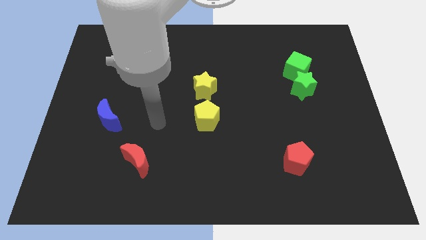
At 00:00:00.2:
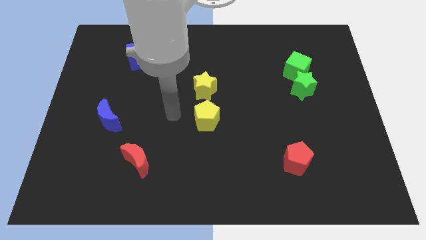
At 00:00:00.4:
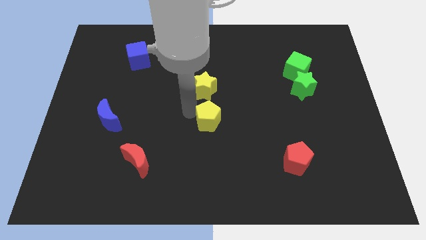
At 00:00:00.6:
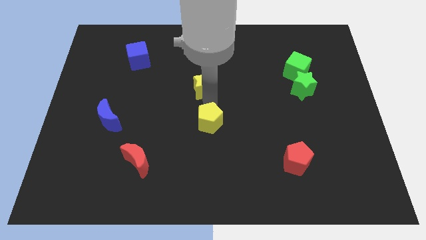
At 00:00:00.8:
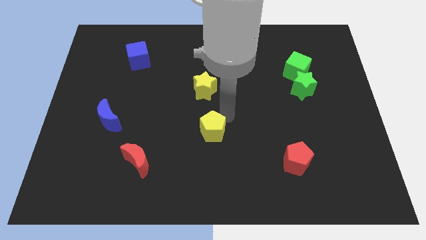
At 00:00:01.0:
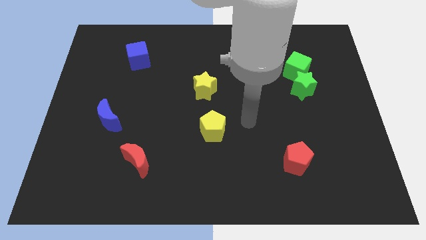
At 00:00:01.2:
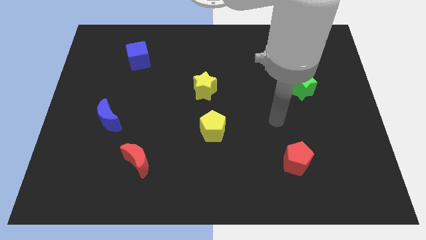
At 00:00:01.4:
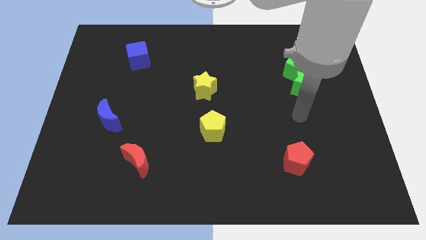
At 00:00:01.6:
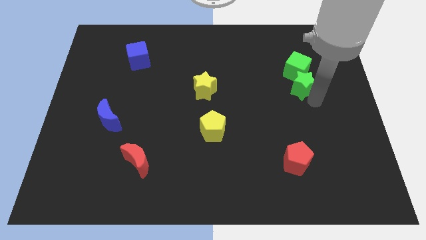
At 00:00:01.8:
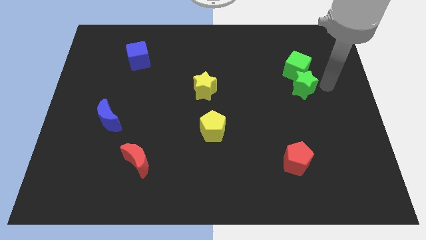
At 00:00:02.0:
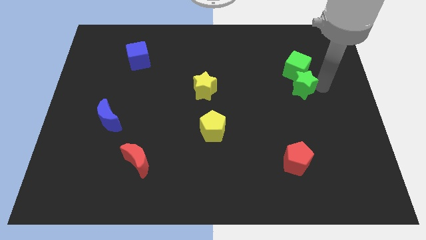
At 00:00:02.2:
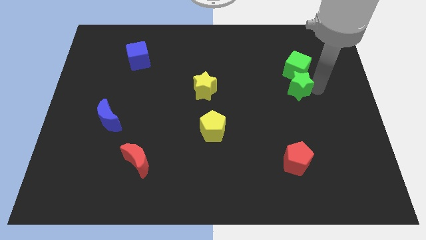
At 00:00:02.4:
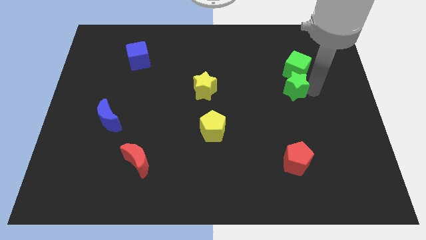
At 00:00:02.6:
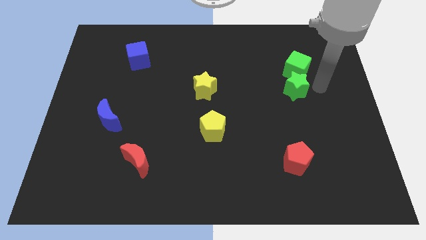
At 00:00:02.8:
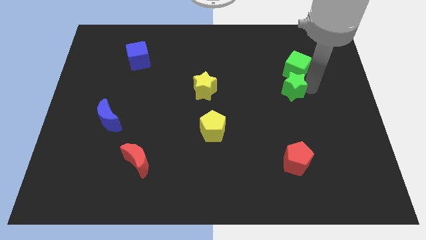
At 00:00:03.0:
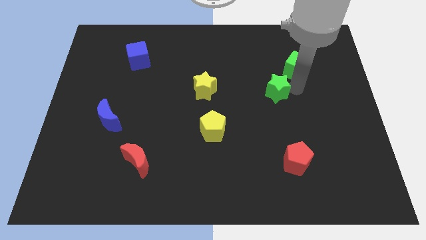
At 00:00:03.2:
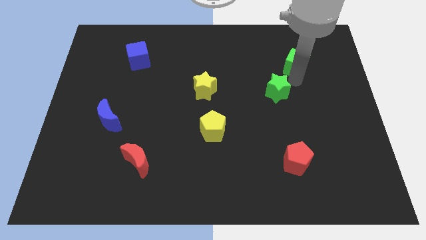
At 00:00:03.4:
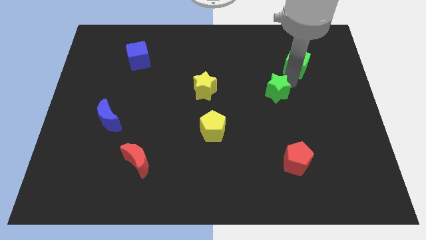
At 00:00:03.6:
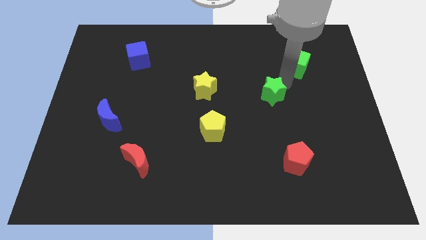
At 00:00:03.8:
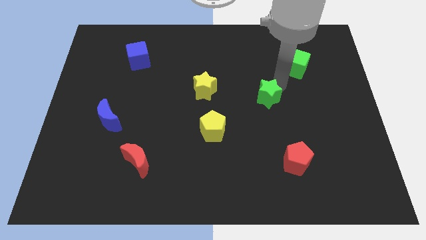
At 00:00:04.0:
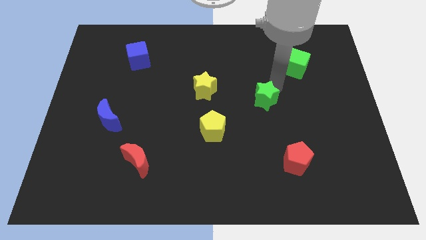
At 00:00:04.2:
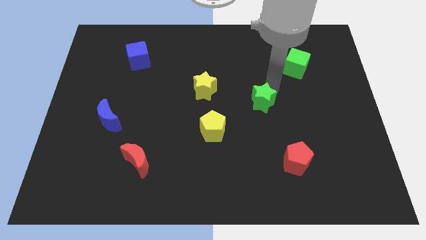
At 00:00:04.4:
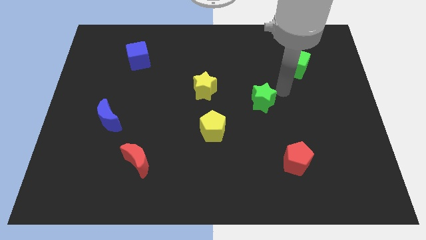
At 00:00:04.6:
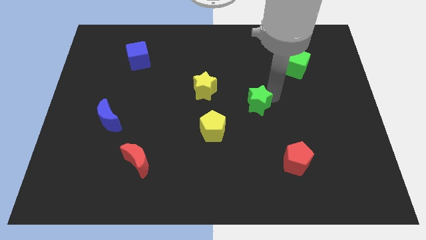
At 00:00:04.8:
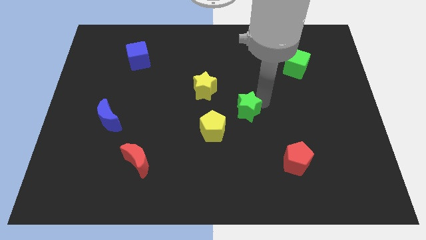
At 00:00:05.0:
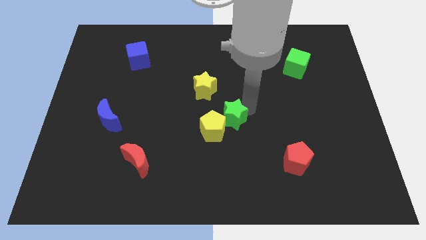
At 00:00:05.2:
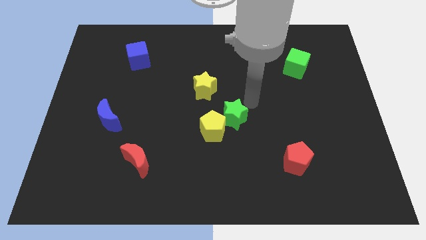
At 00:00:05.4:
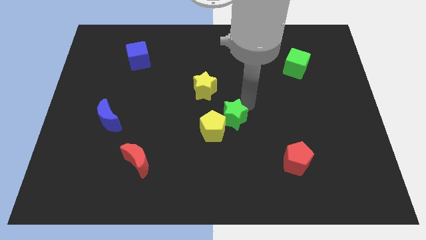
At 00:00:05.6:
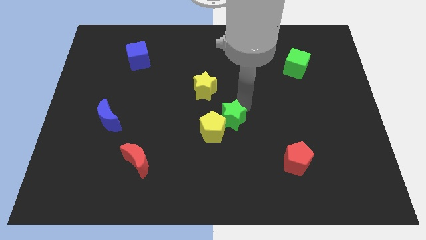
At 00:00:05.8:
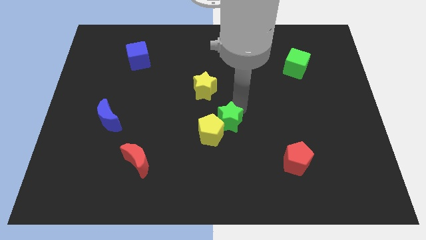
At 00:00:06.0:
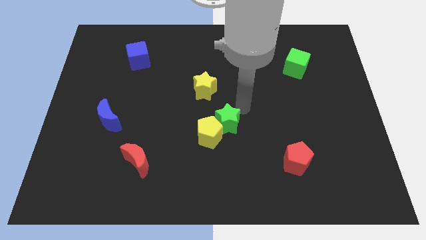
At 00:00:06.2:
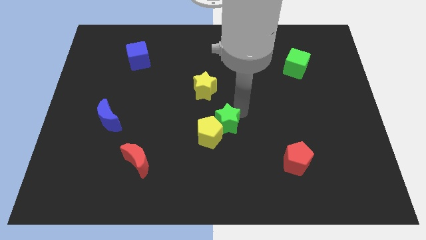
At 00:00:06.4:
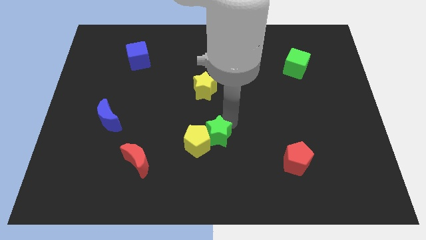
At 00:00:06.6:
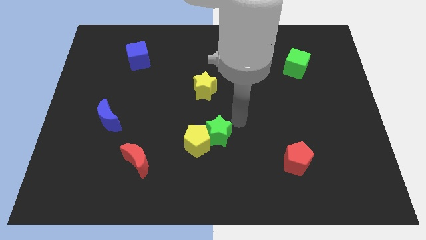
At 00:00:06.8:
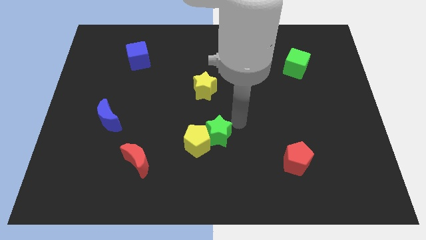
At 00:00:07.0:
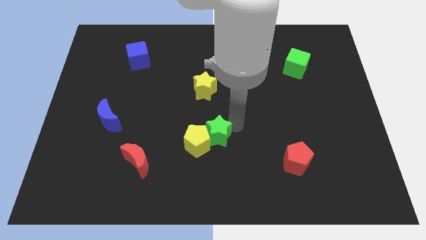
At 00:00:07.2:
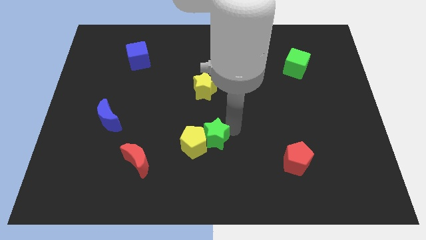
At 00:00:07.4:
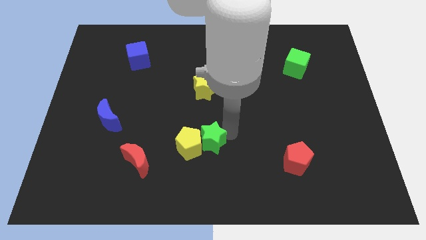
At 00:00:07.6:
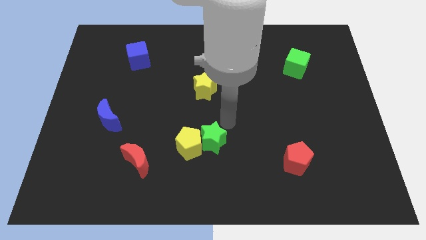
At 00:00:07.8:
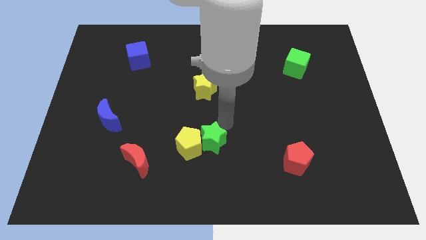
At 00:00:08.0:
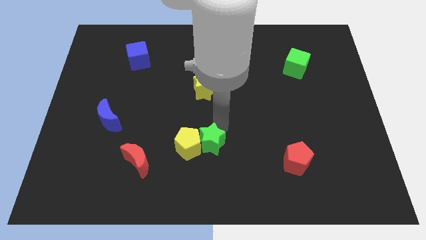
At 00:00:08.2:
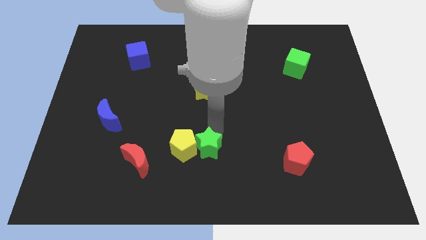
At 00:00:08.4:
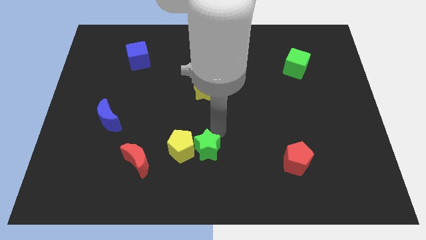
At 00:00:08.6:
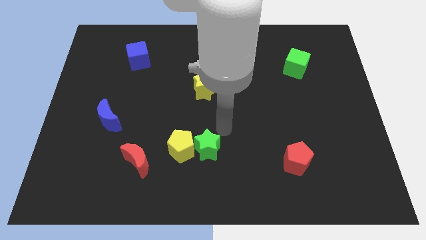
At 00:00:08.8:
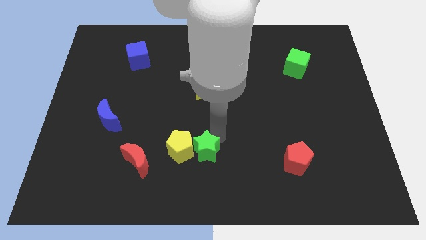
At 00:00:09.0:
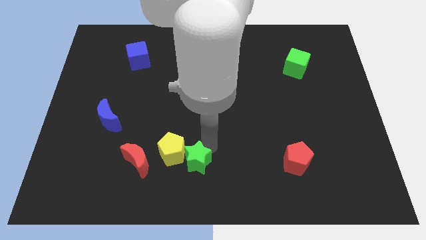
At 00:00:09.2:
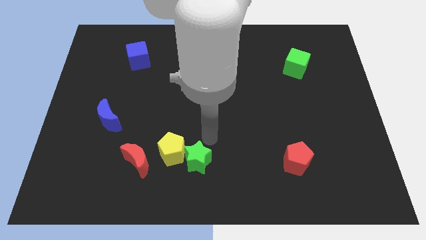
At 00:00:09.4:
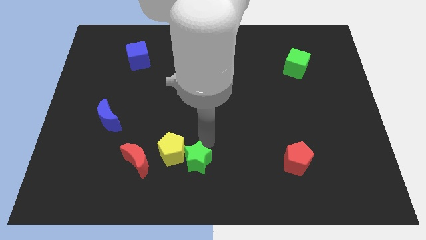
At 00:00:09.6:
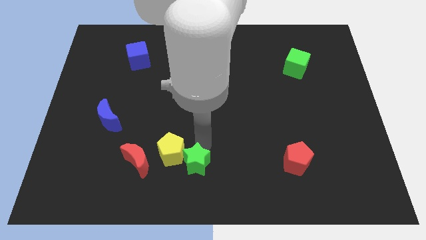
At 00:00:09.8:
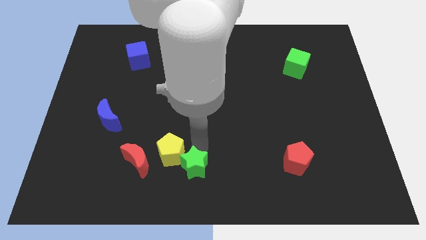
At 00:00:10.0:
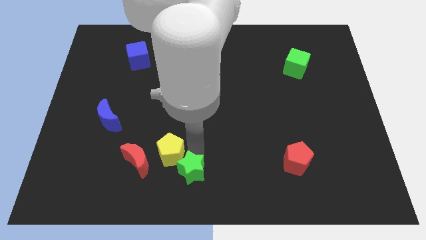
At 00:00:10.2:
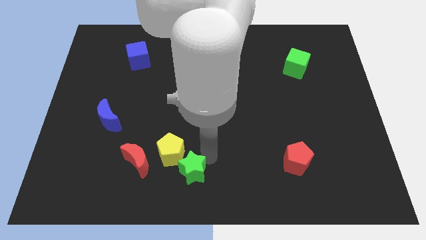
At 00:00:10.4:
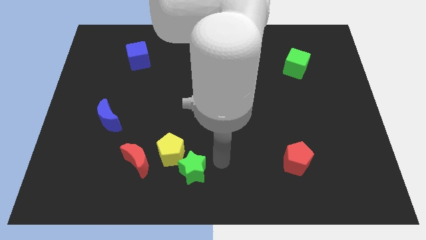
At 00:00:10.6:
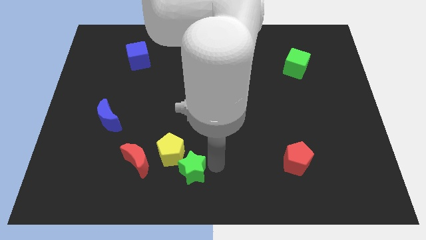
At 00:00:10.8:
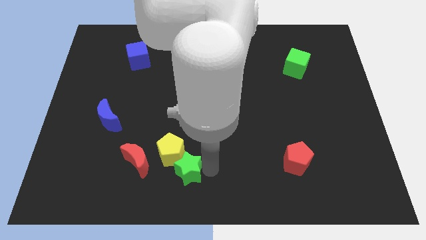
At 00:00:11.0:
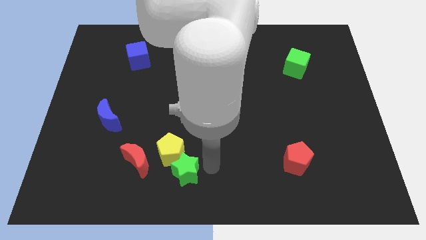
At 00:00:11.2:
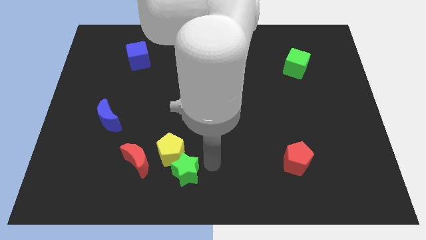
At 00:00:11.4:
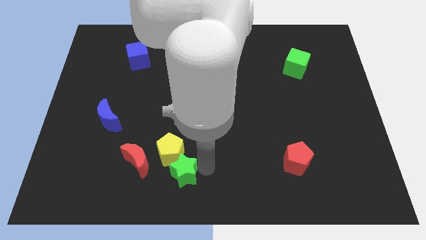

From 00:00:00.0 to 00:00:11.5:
slide the green star diagonally down and to the right of the red moon

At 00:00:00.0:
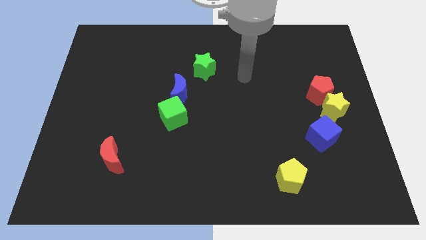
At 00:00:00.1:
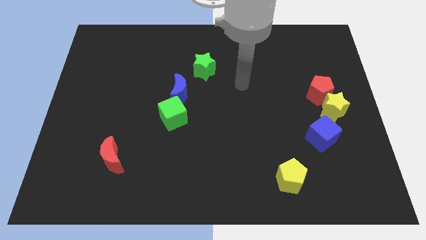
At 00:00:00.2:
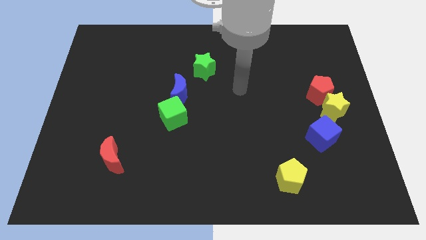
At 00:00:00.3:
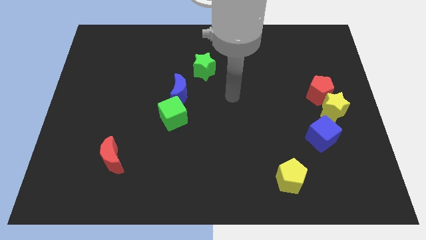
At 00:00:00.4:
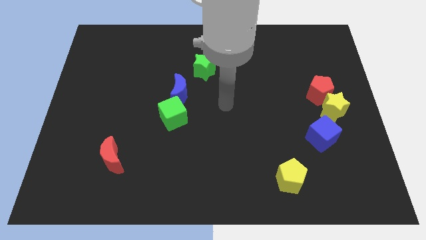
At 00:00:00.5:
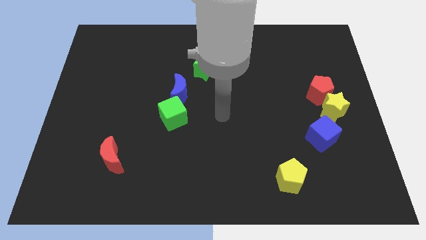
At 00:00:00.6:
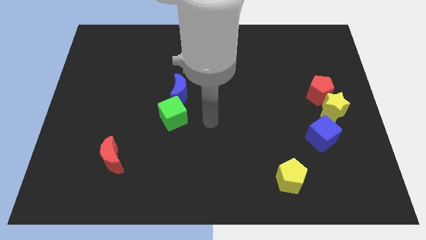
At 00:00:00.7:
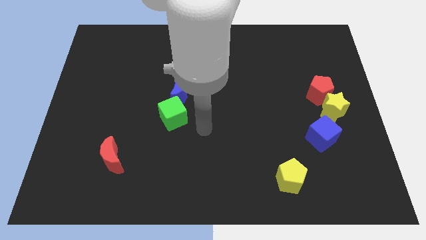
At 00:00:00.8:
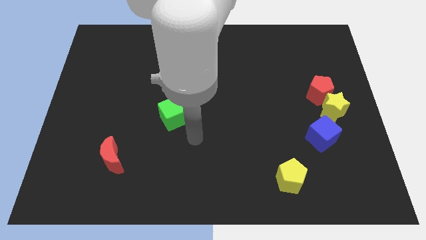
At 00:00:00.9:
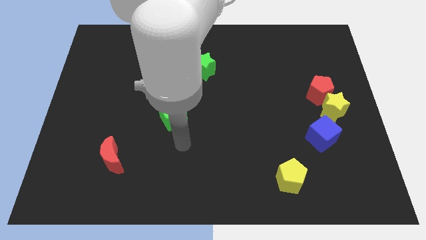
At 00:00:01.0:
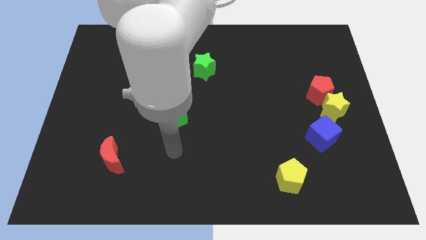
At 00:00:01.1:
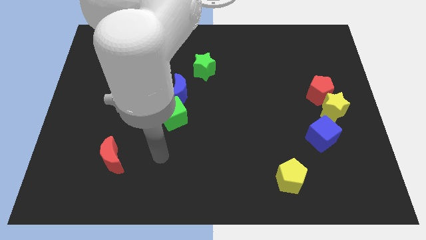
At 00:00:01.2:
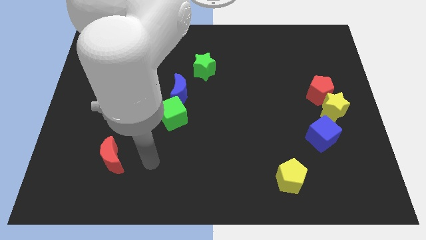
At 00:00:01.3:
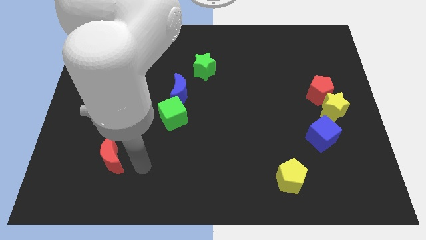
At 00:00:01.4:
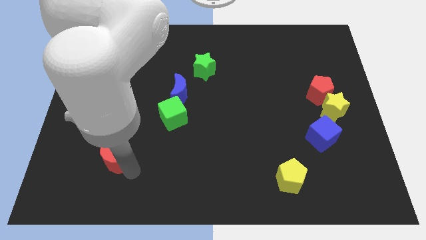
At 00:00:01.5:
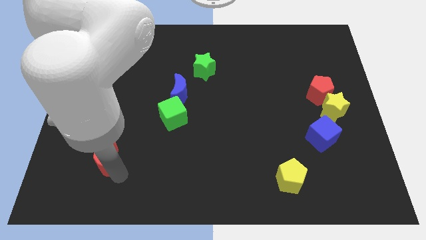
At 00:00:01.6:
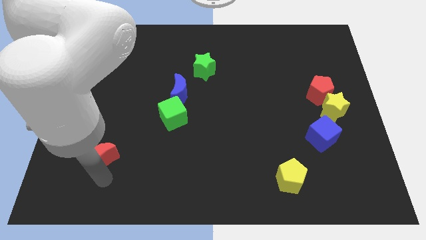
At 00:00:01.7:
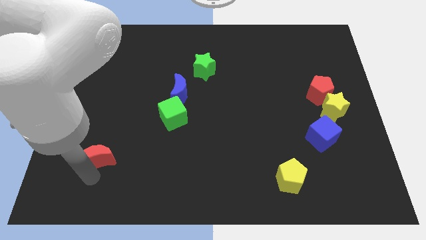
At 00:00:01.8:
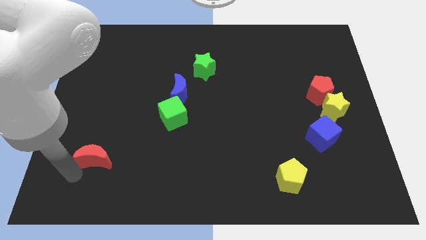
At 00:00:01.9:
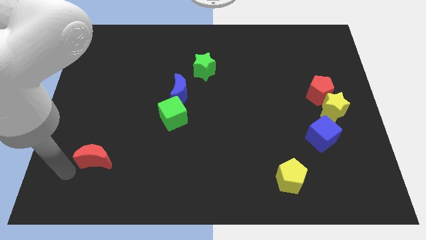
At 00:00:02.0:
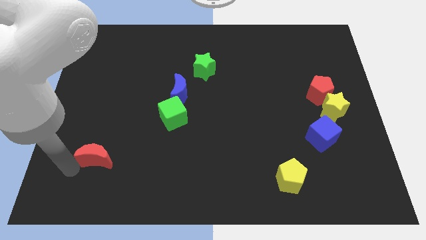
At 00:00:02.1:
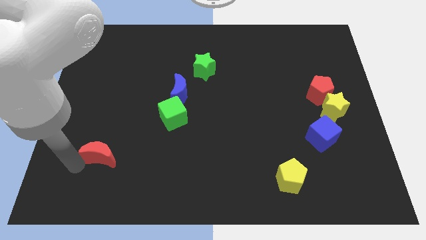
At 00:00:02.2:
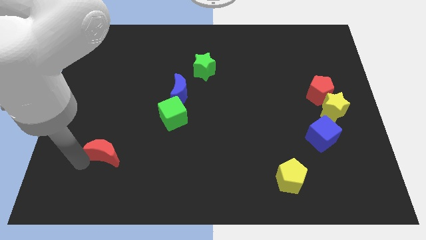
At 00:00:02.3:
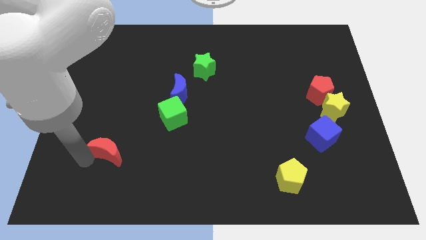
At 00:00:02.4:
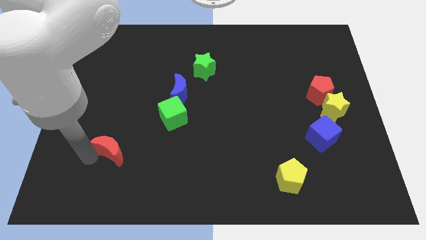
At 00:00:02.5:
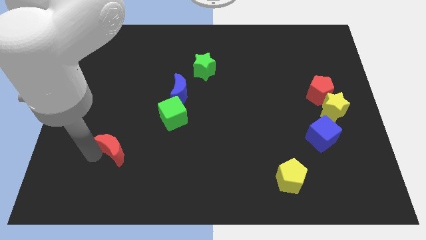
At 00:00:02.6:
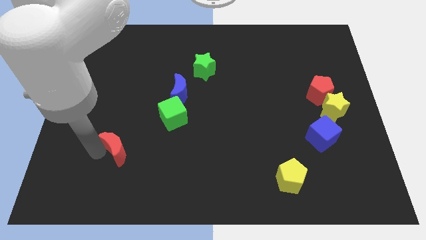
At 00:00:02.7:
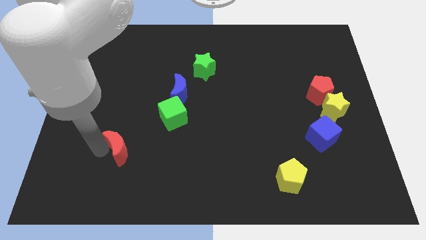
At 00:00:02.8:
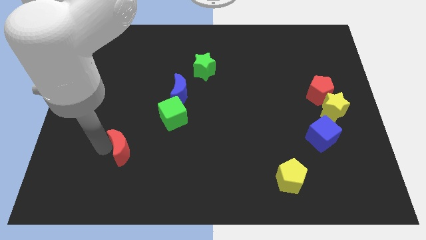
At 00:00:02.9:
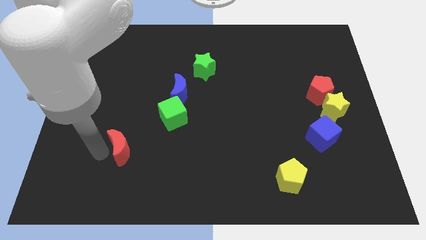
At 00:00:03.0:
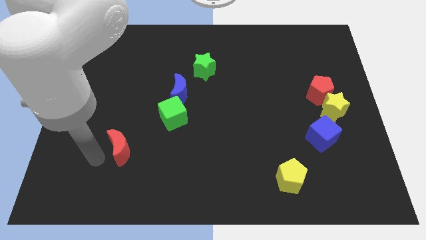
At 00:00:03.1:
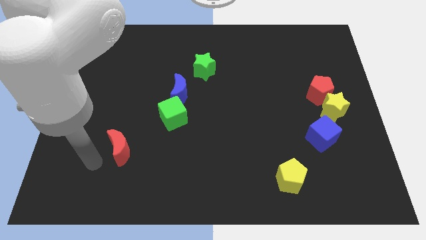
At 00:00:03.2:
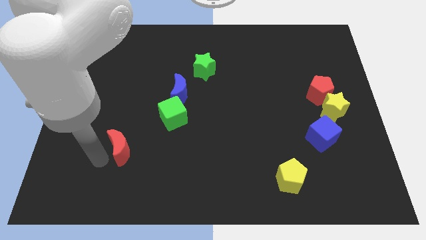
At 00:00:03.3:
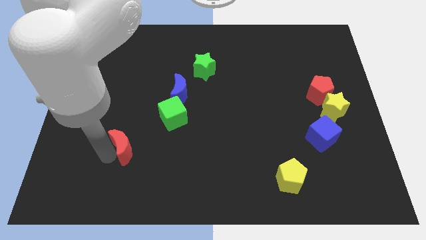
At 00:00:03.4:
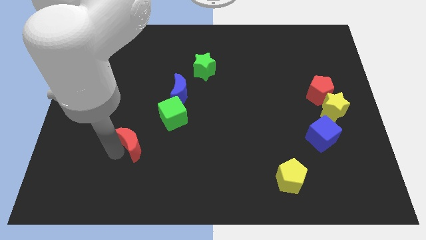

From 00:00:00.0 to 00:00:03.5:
move the red moon to the bottom left of the green cube
